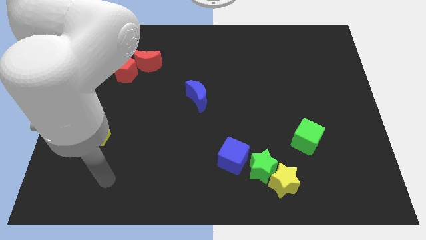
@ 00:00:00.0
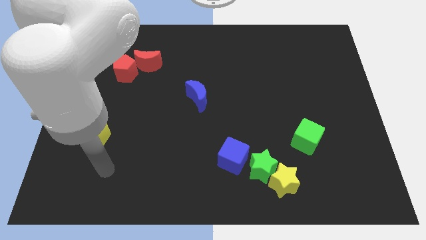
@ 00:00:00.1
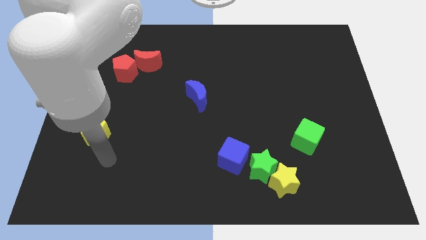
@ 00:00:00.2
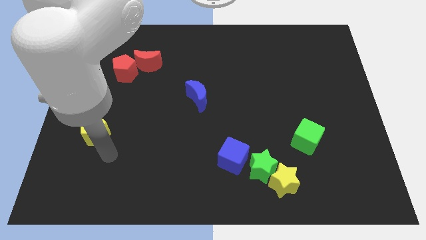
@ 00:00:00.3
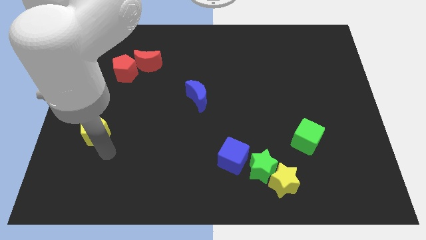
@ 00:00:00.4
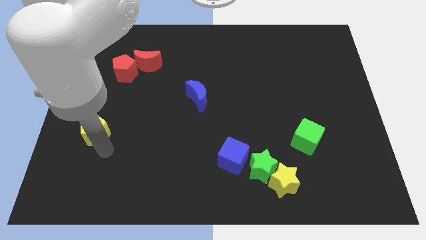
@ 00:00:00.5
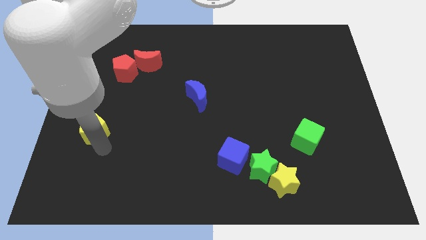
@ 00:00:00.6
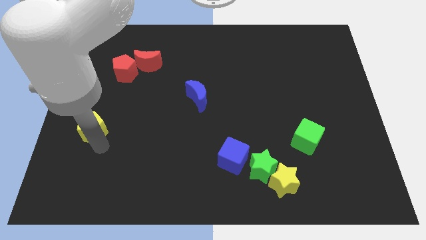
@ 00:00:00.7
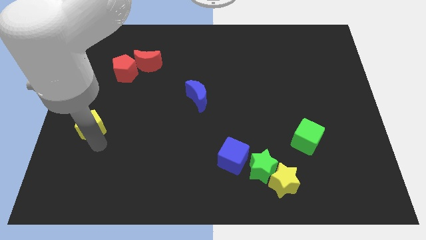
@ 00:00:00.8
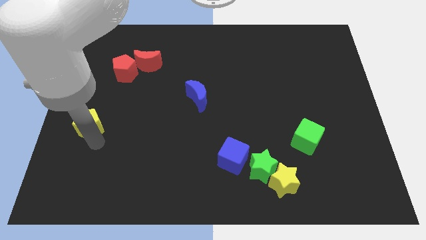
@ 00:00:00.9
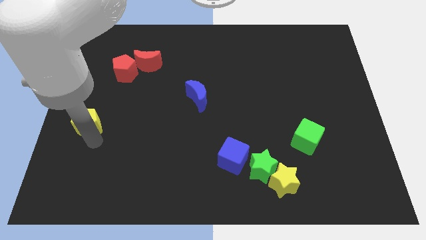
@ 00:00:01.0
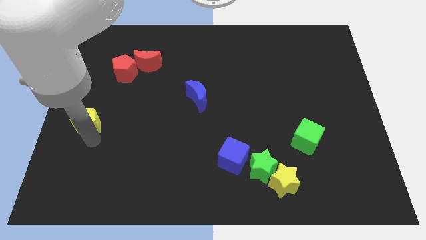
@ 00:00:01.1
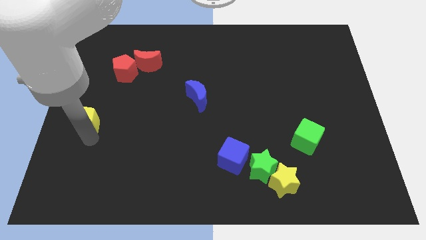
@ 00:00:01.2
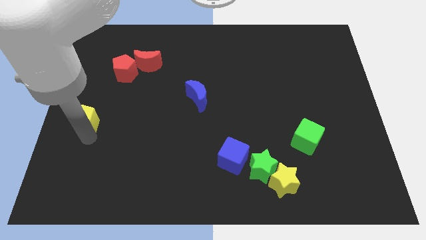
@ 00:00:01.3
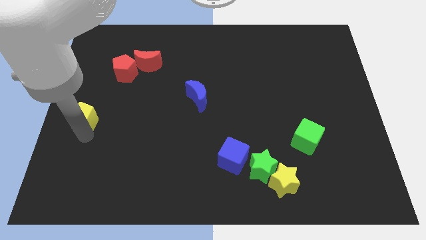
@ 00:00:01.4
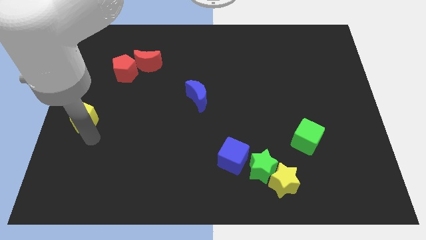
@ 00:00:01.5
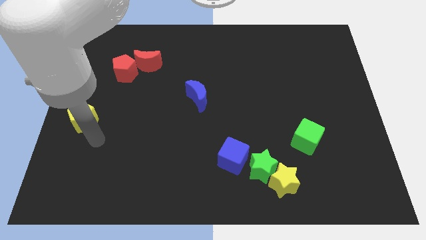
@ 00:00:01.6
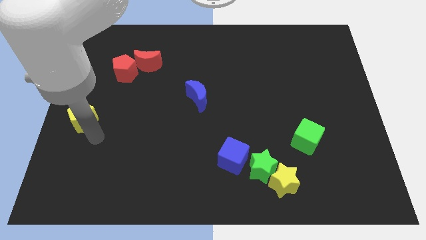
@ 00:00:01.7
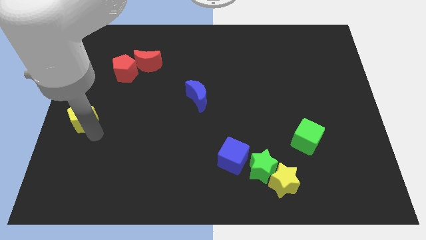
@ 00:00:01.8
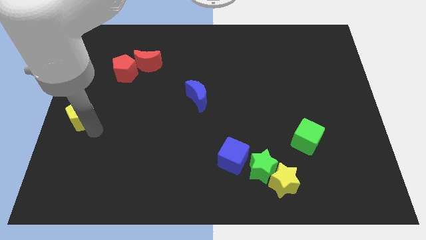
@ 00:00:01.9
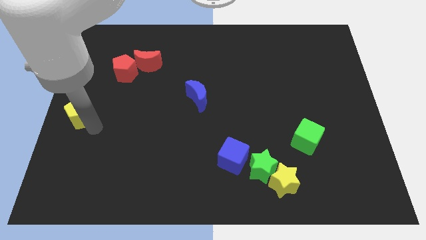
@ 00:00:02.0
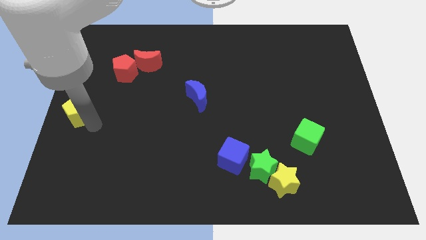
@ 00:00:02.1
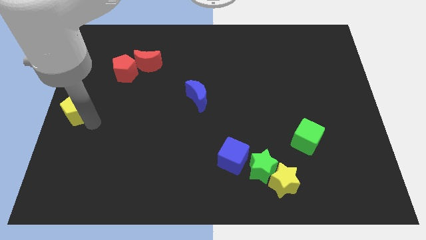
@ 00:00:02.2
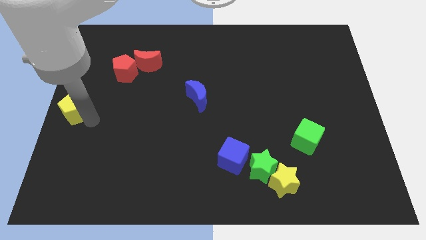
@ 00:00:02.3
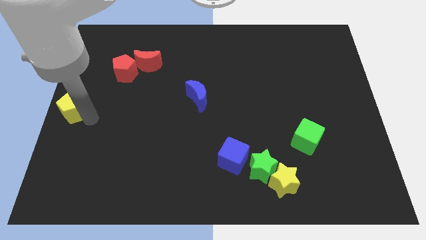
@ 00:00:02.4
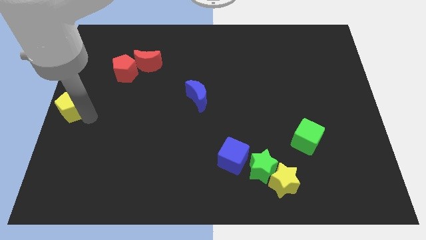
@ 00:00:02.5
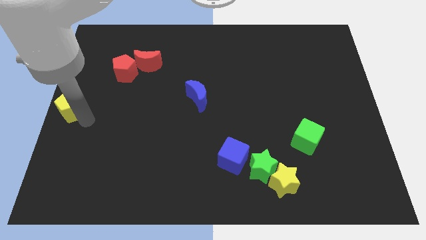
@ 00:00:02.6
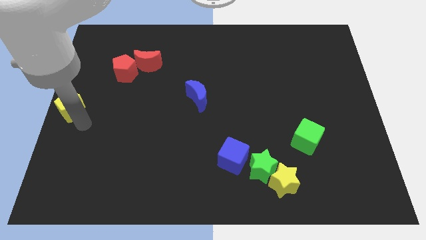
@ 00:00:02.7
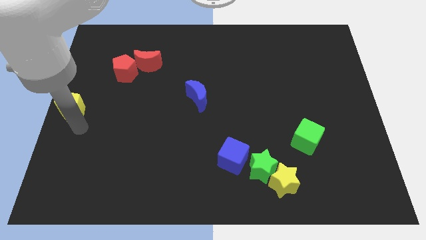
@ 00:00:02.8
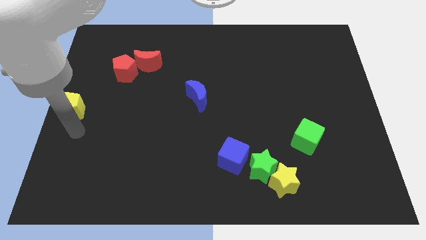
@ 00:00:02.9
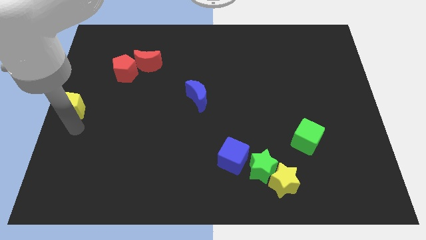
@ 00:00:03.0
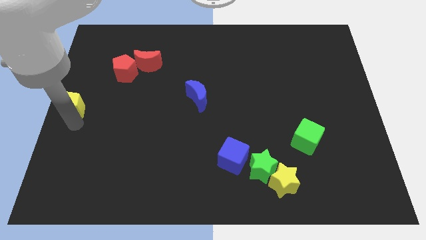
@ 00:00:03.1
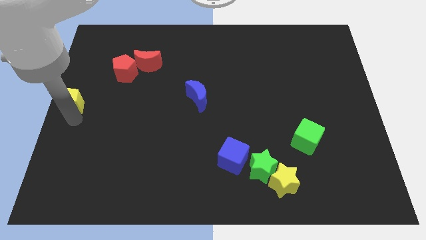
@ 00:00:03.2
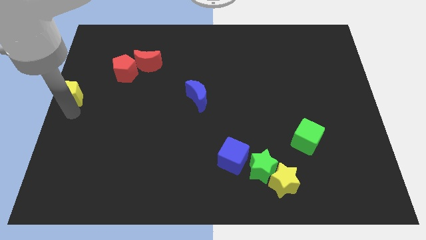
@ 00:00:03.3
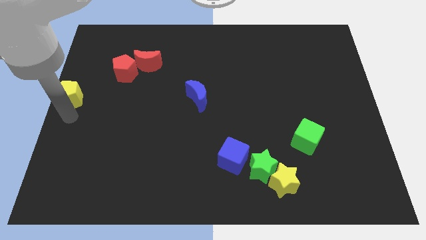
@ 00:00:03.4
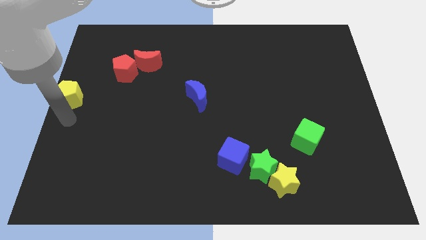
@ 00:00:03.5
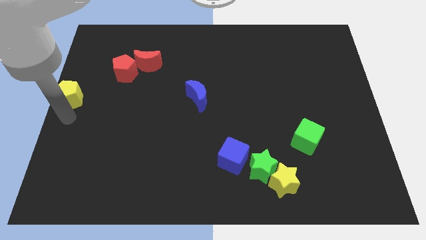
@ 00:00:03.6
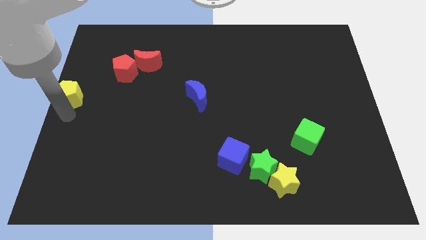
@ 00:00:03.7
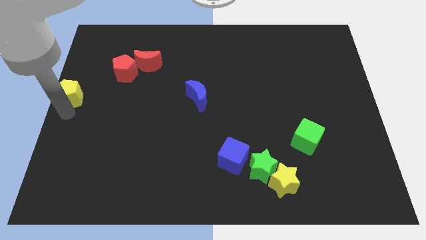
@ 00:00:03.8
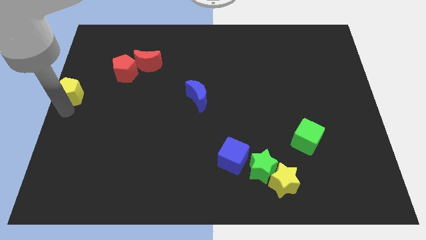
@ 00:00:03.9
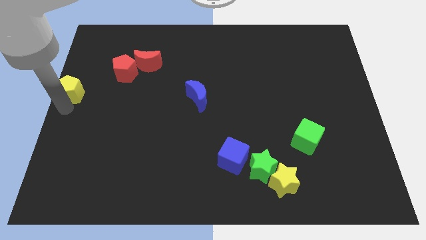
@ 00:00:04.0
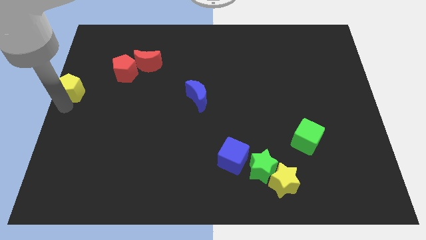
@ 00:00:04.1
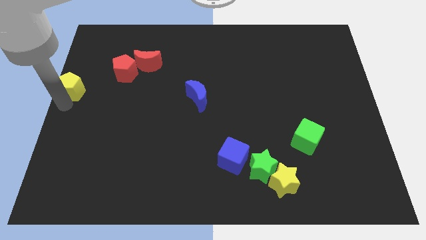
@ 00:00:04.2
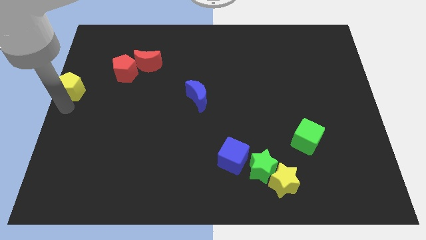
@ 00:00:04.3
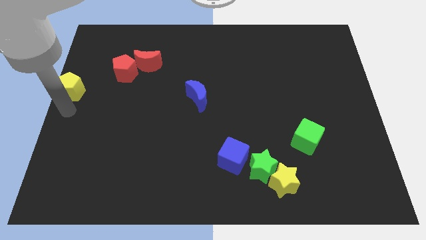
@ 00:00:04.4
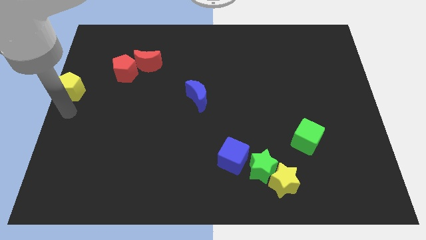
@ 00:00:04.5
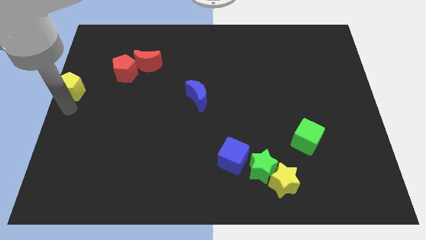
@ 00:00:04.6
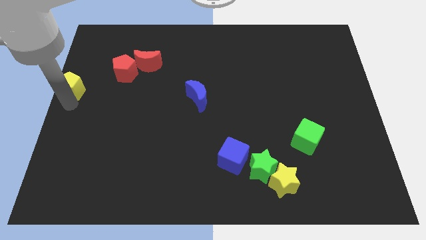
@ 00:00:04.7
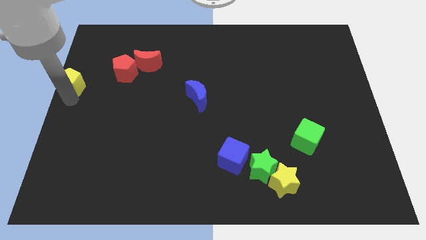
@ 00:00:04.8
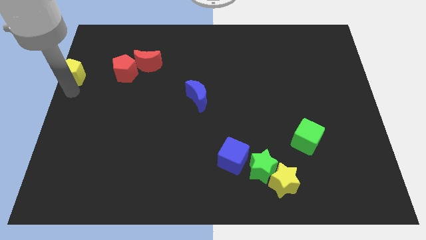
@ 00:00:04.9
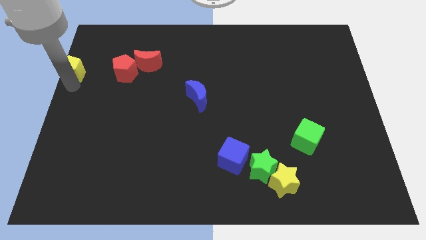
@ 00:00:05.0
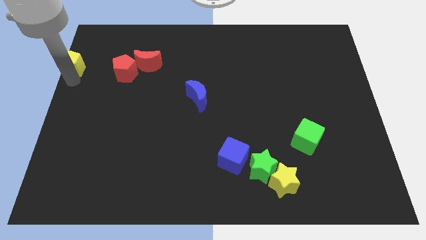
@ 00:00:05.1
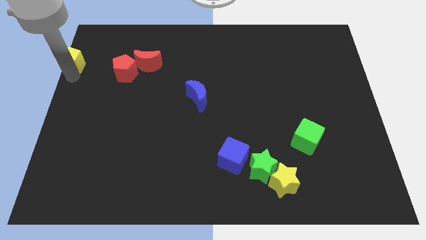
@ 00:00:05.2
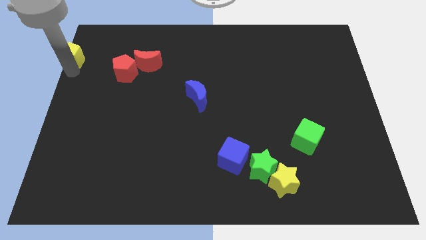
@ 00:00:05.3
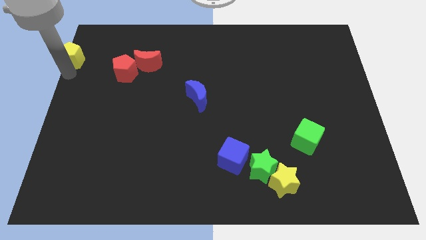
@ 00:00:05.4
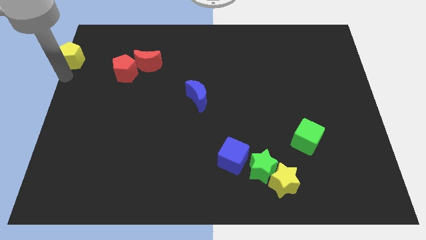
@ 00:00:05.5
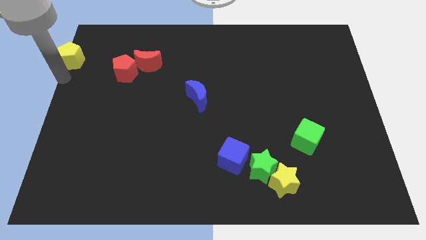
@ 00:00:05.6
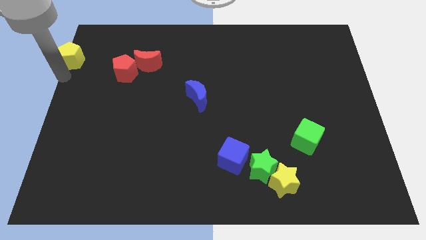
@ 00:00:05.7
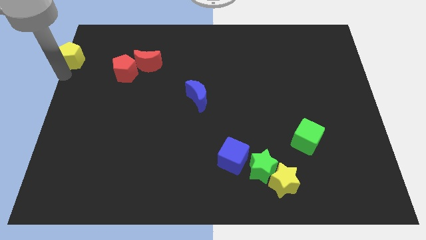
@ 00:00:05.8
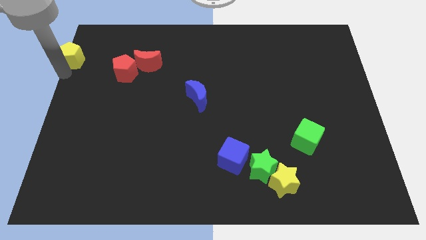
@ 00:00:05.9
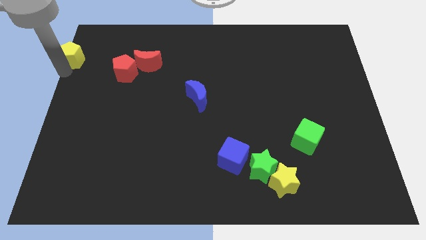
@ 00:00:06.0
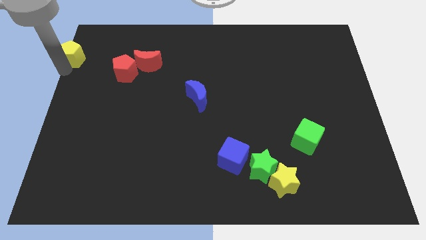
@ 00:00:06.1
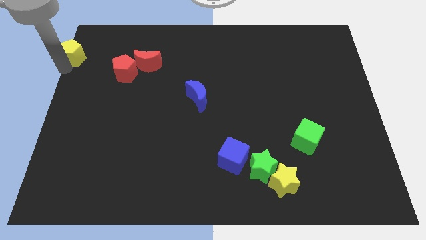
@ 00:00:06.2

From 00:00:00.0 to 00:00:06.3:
push the yellow pentagon to the top left corner
